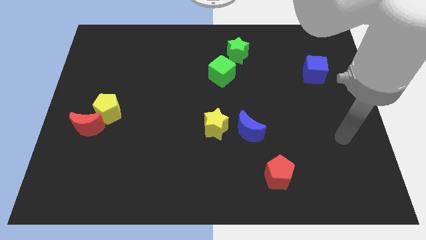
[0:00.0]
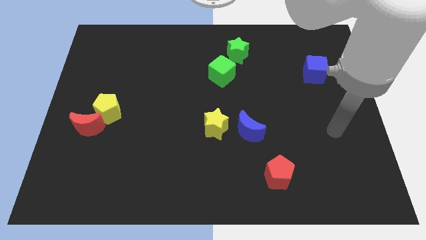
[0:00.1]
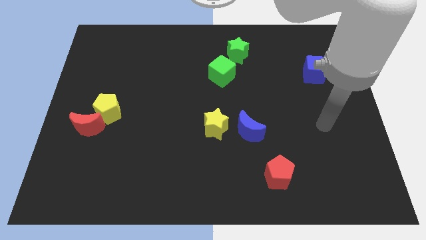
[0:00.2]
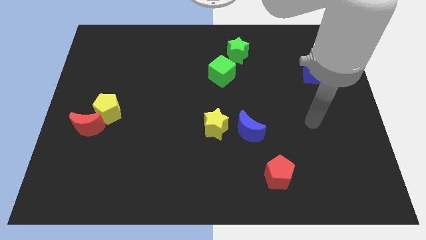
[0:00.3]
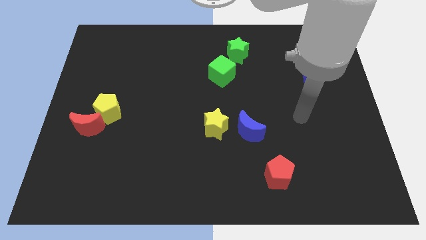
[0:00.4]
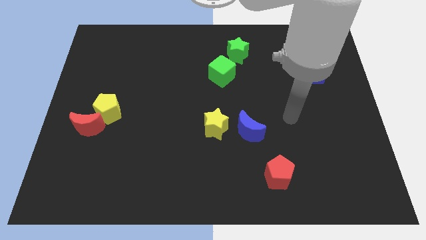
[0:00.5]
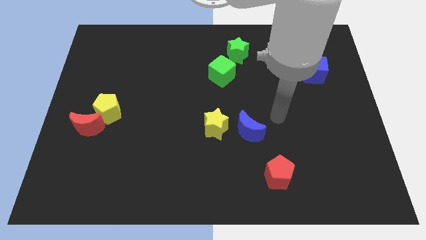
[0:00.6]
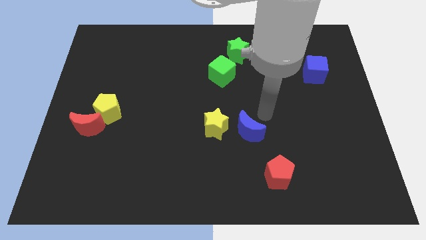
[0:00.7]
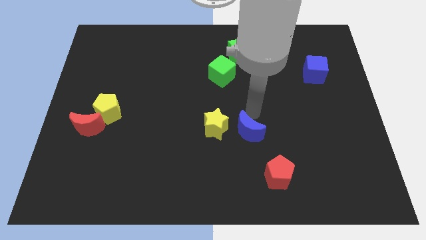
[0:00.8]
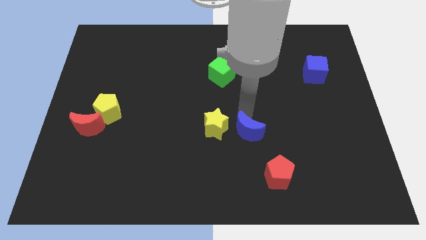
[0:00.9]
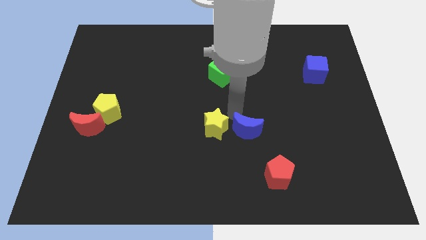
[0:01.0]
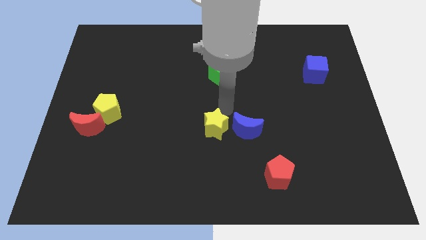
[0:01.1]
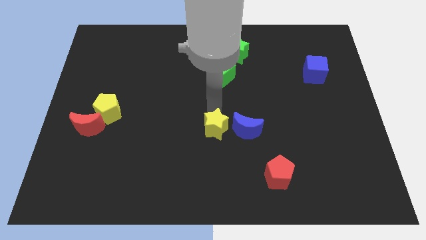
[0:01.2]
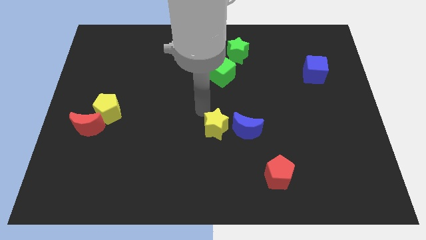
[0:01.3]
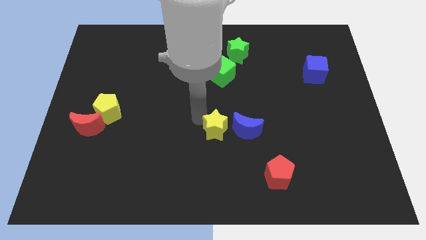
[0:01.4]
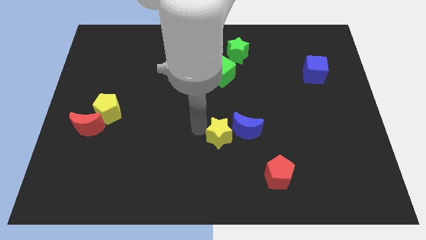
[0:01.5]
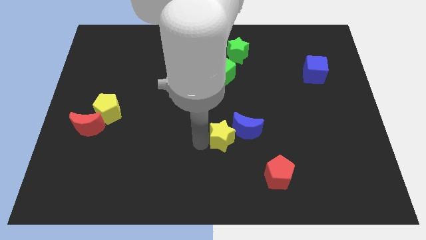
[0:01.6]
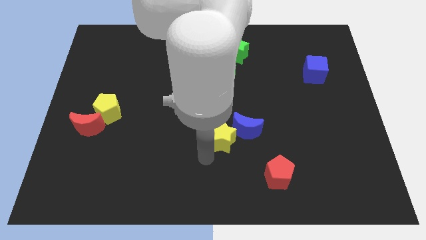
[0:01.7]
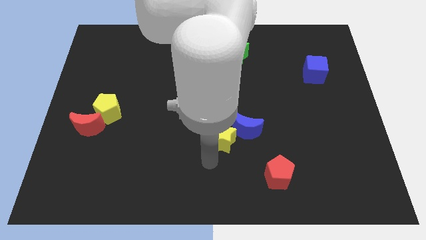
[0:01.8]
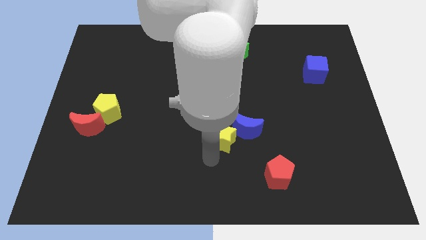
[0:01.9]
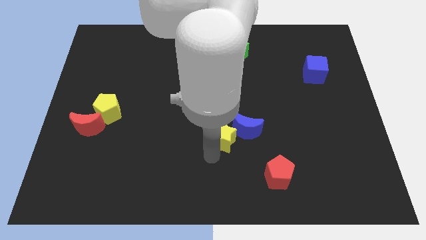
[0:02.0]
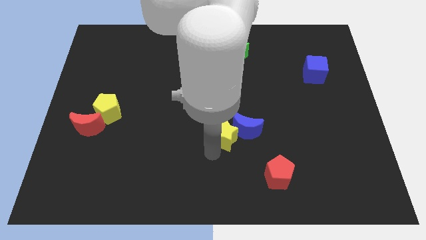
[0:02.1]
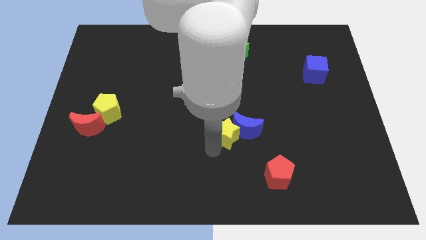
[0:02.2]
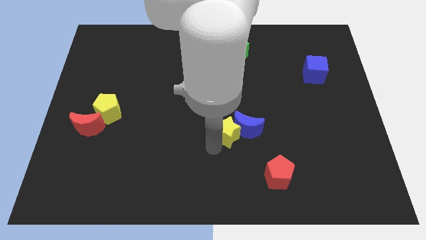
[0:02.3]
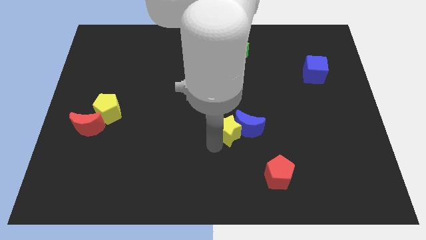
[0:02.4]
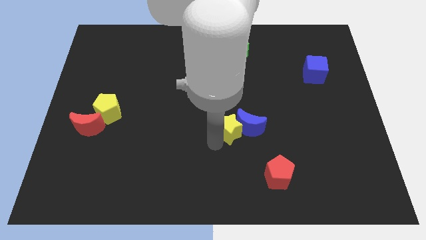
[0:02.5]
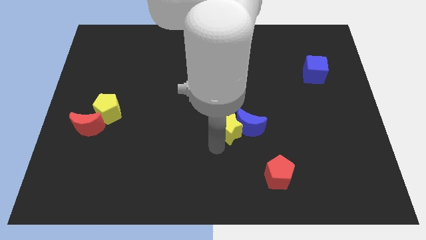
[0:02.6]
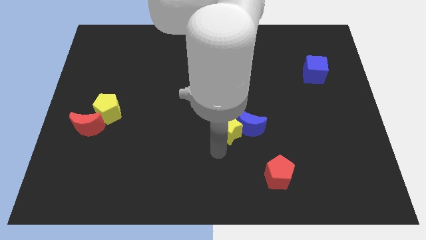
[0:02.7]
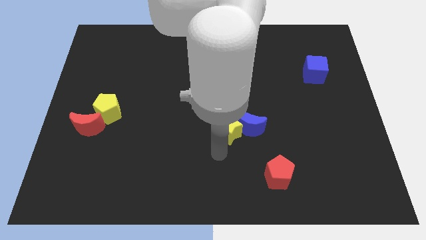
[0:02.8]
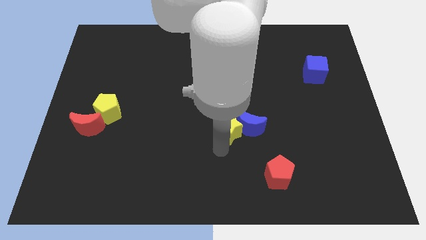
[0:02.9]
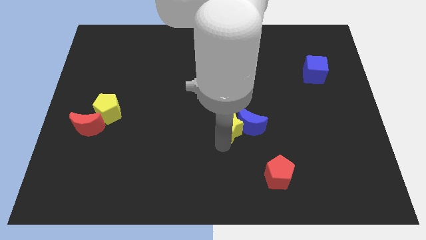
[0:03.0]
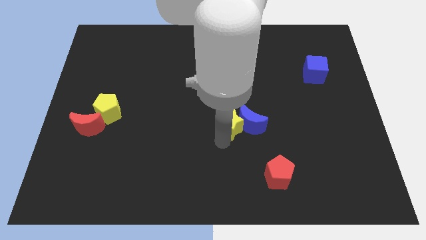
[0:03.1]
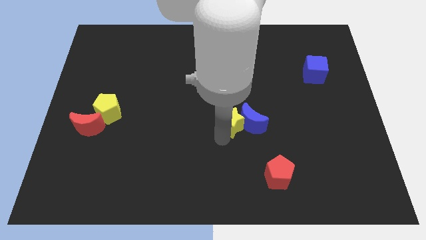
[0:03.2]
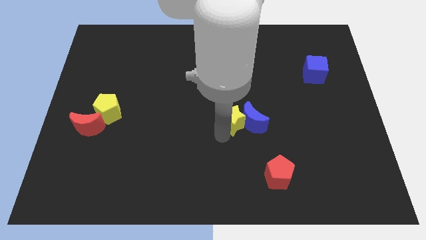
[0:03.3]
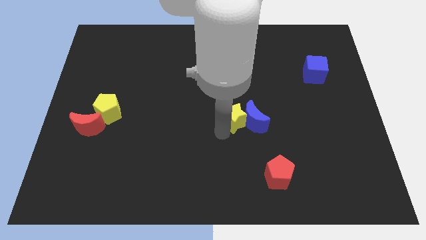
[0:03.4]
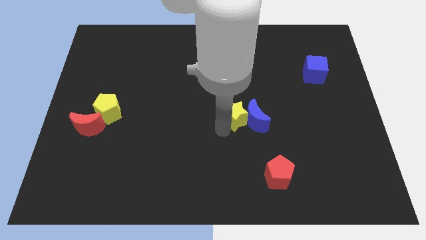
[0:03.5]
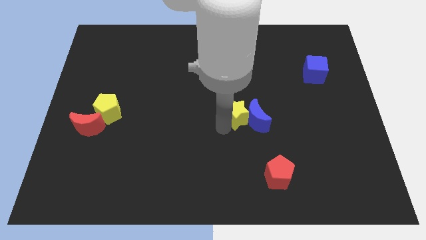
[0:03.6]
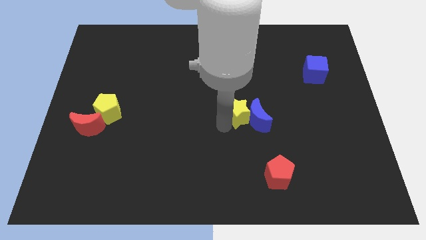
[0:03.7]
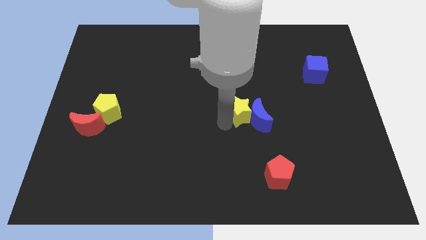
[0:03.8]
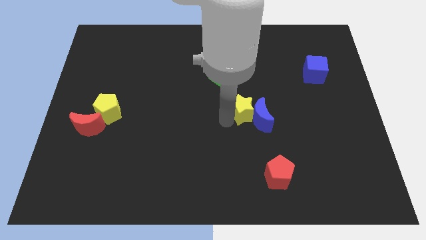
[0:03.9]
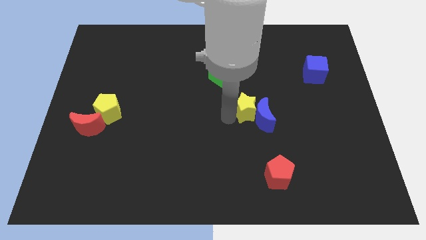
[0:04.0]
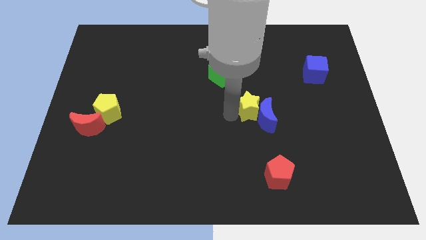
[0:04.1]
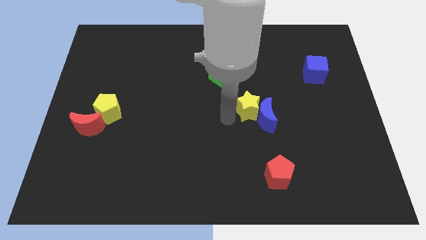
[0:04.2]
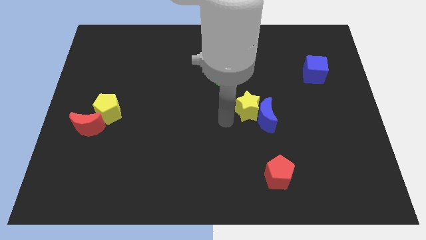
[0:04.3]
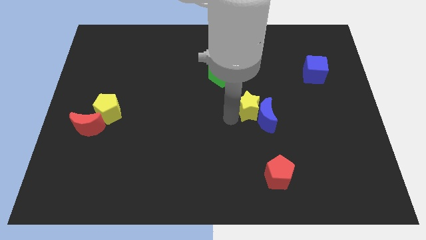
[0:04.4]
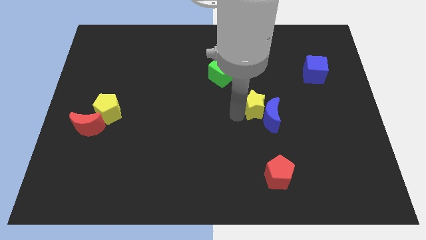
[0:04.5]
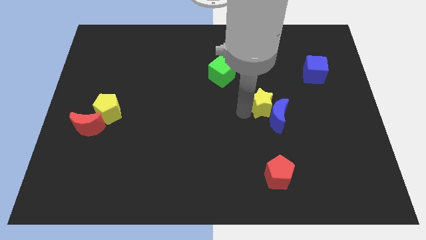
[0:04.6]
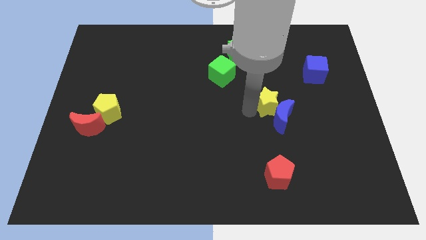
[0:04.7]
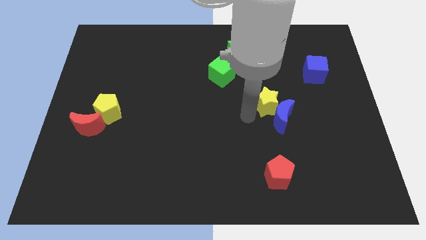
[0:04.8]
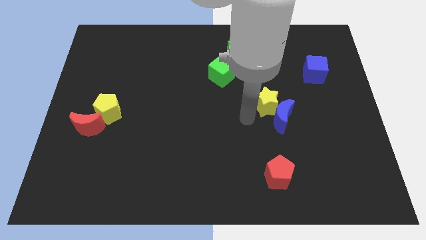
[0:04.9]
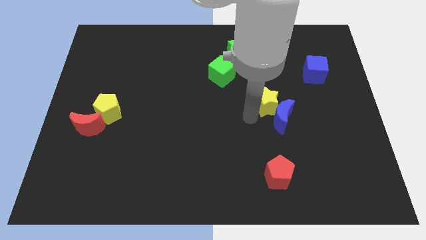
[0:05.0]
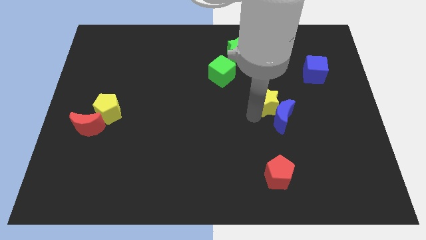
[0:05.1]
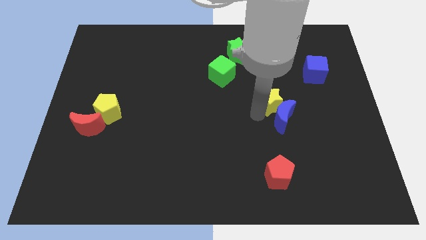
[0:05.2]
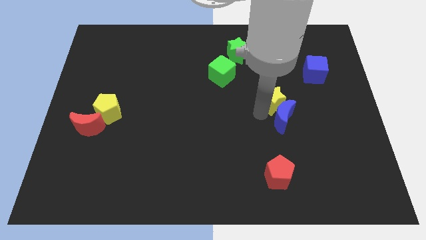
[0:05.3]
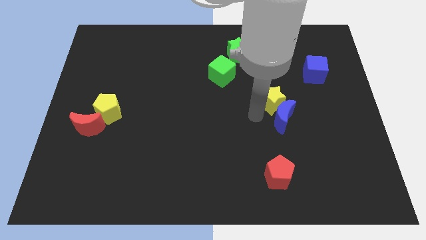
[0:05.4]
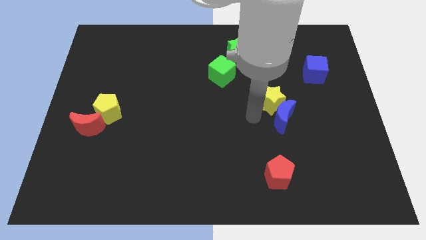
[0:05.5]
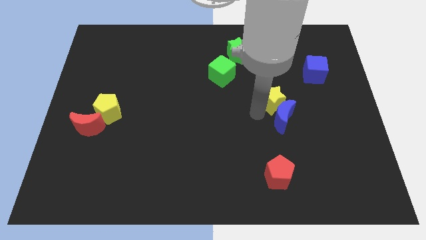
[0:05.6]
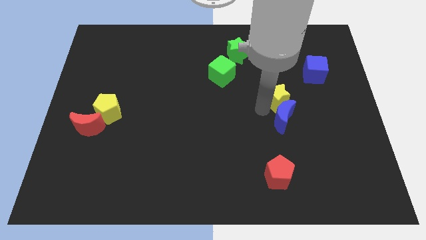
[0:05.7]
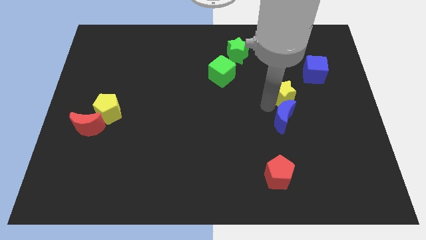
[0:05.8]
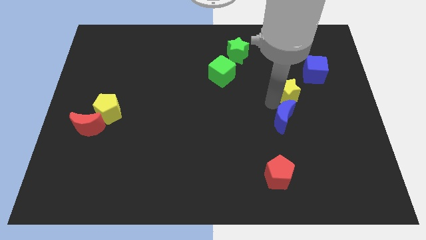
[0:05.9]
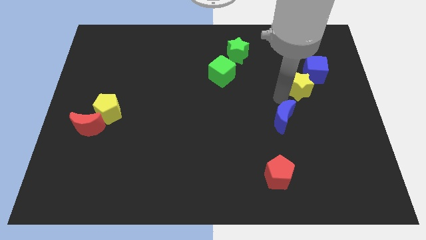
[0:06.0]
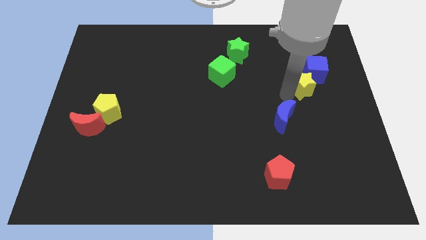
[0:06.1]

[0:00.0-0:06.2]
move the yellow star next to the blue cube

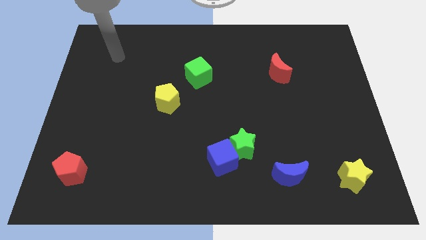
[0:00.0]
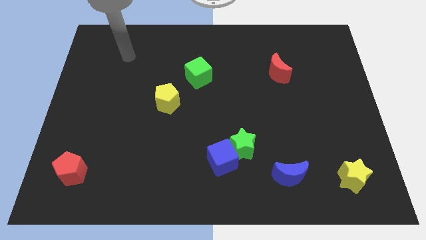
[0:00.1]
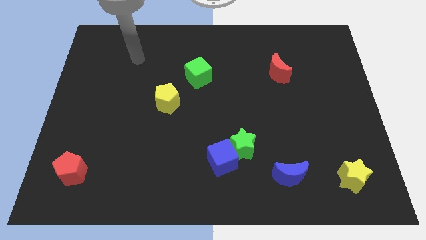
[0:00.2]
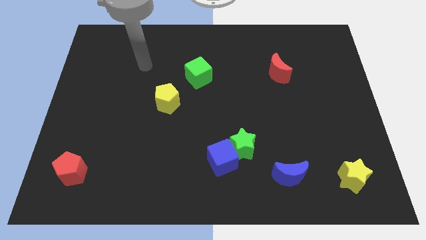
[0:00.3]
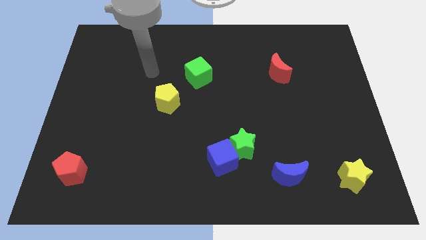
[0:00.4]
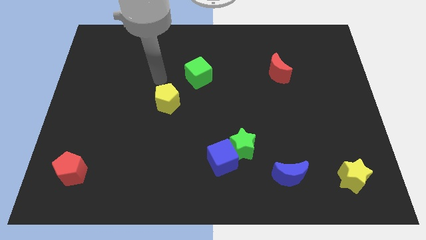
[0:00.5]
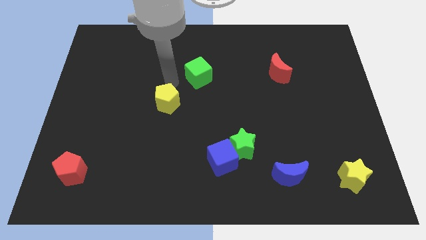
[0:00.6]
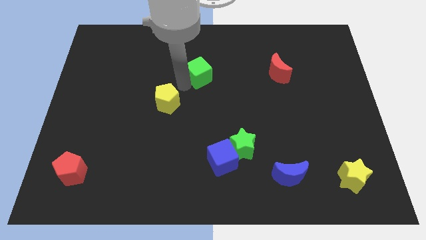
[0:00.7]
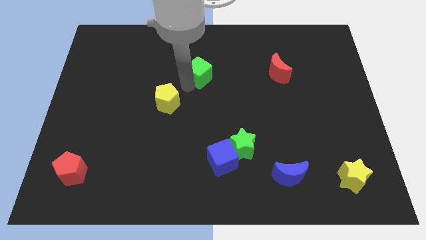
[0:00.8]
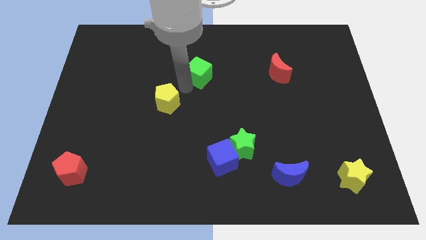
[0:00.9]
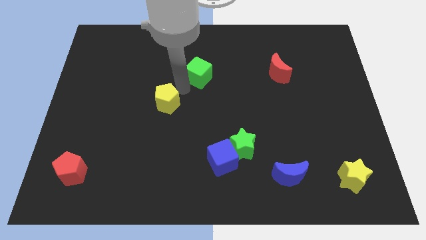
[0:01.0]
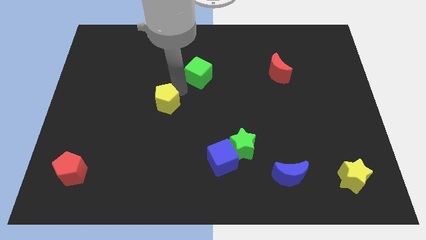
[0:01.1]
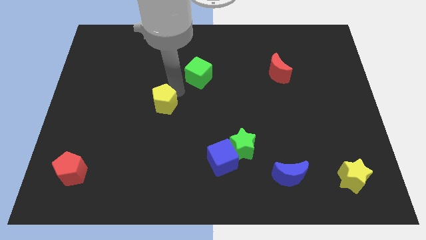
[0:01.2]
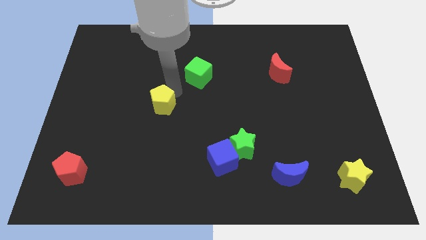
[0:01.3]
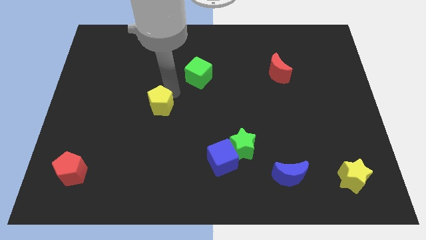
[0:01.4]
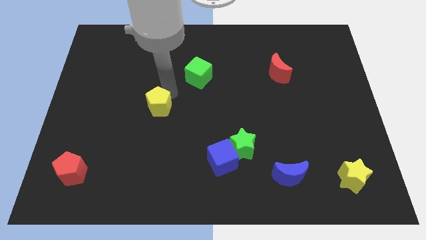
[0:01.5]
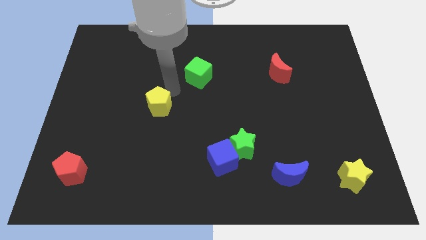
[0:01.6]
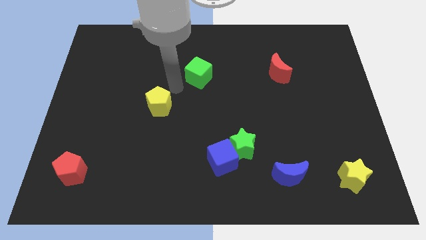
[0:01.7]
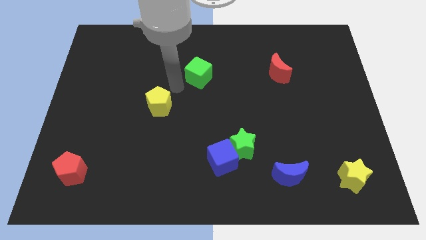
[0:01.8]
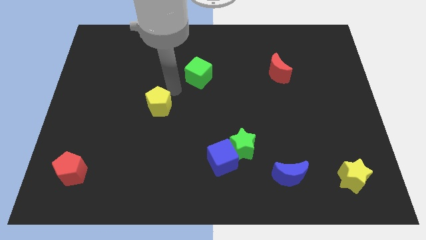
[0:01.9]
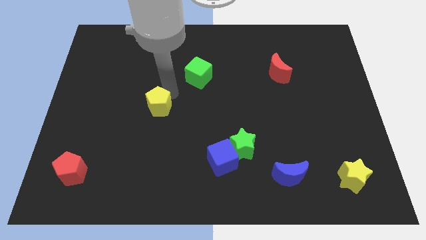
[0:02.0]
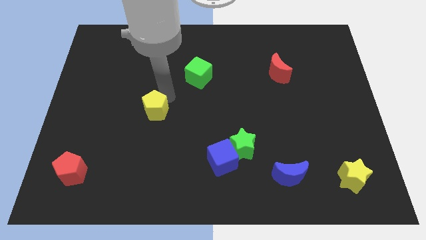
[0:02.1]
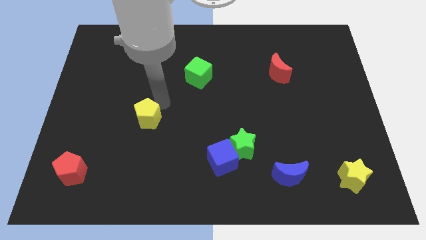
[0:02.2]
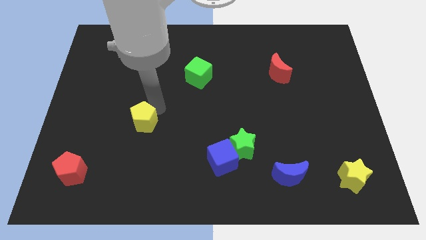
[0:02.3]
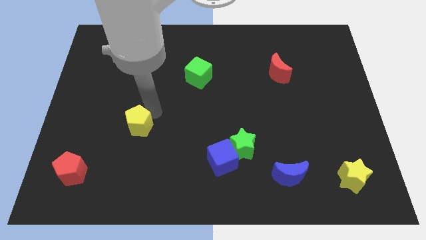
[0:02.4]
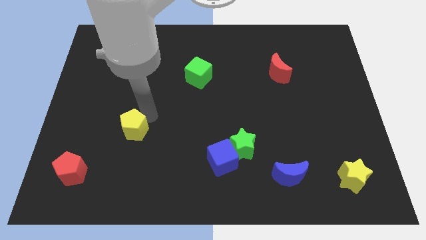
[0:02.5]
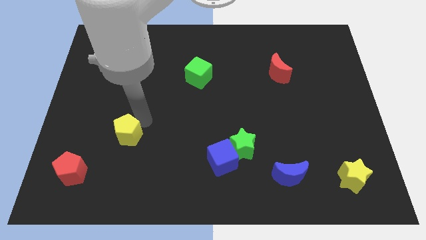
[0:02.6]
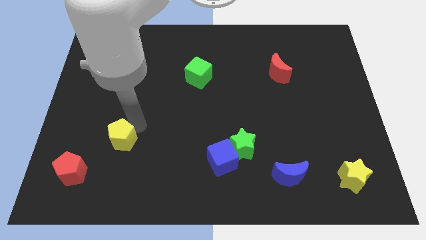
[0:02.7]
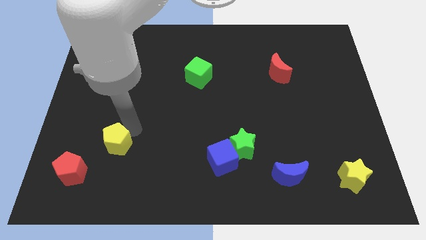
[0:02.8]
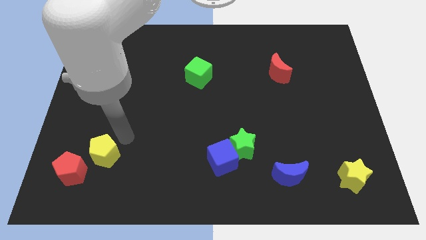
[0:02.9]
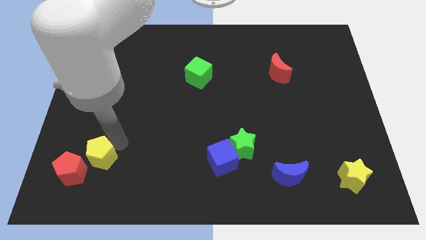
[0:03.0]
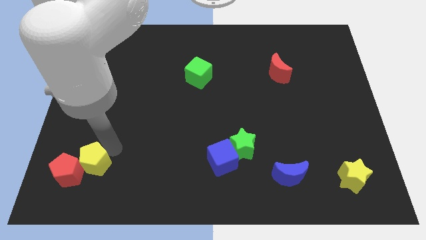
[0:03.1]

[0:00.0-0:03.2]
put the yellow pentagon towards the red pentagon
